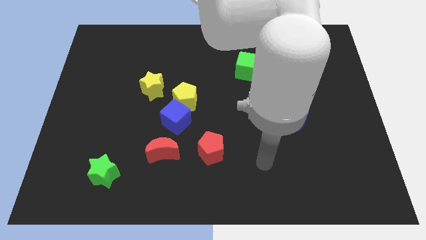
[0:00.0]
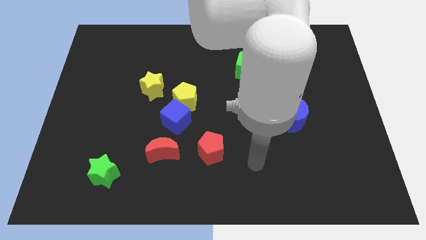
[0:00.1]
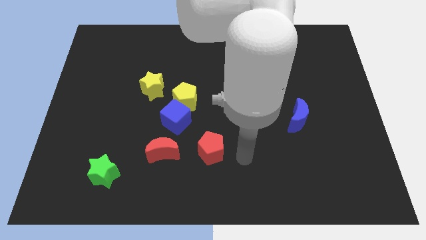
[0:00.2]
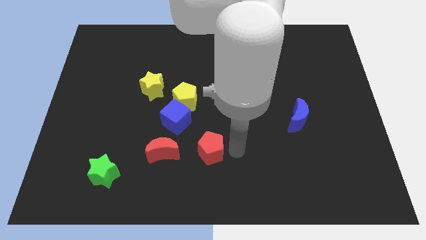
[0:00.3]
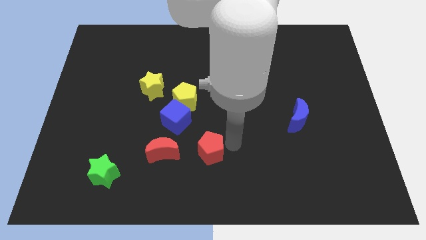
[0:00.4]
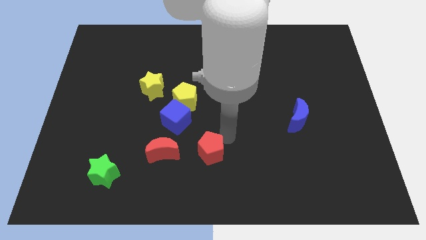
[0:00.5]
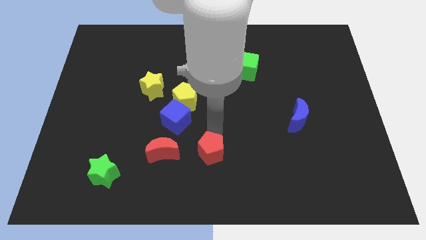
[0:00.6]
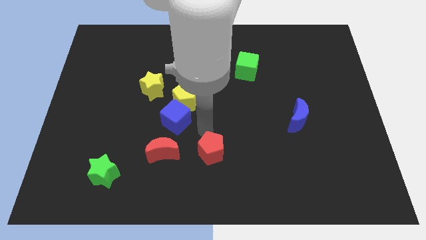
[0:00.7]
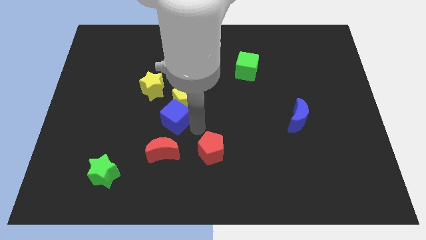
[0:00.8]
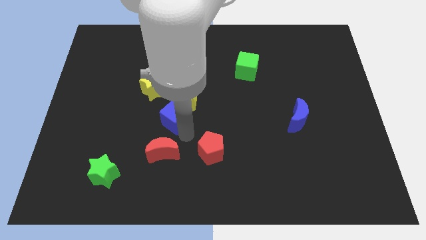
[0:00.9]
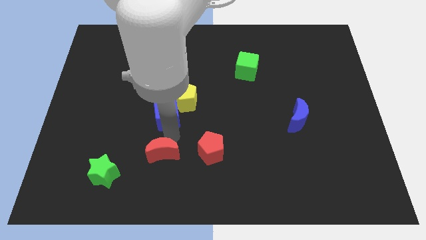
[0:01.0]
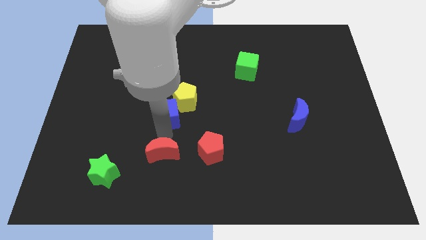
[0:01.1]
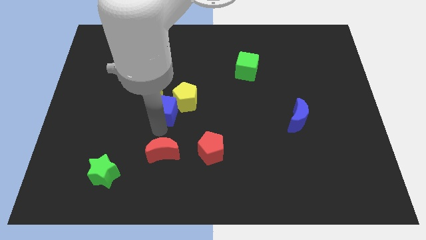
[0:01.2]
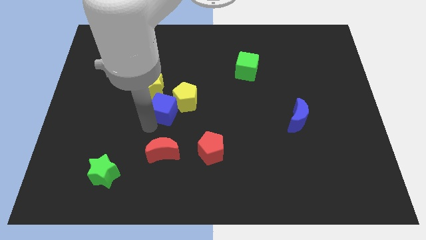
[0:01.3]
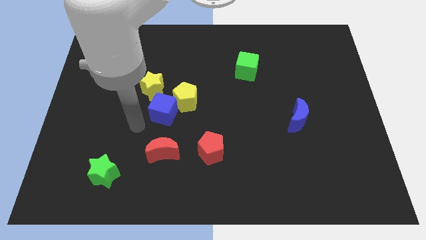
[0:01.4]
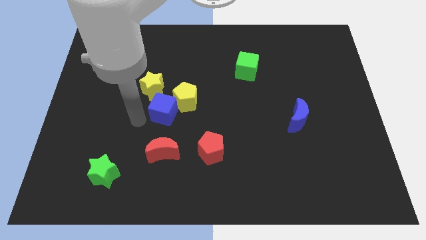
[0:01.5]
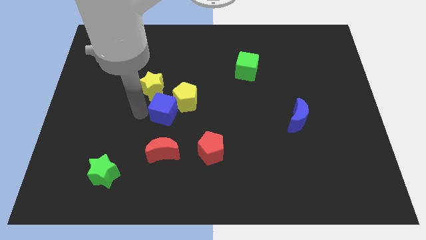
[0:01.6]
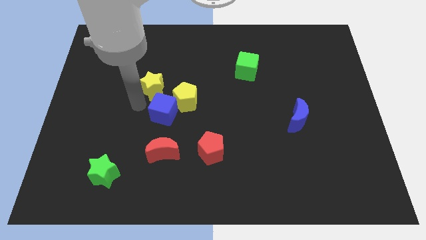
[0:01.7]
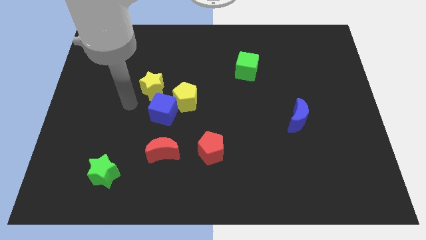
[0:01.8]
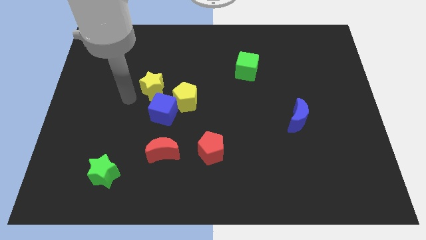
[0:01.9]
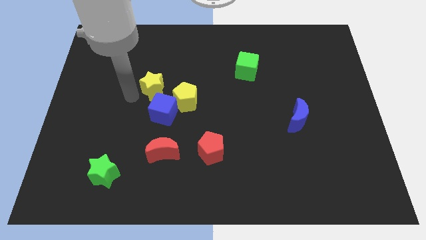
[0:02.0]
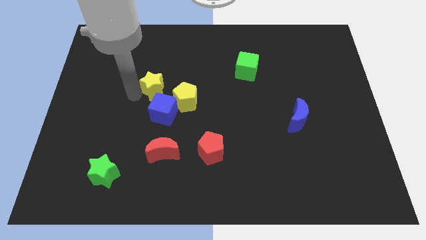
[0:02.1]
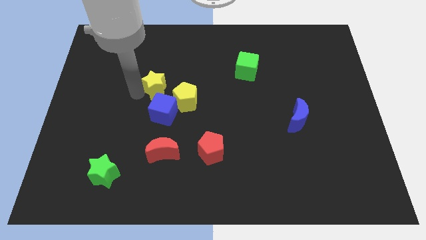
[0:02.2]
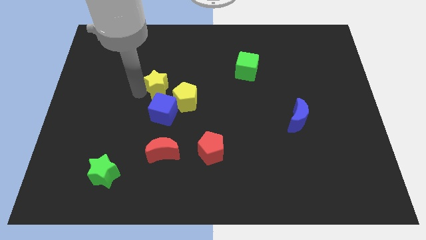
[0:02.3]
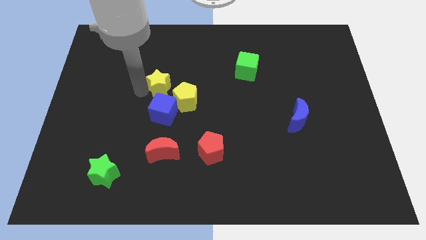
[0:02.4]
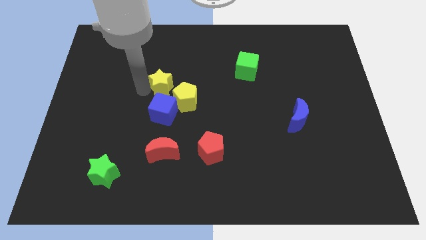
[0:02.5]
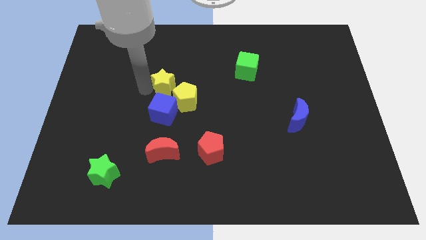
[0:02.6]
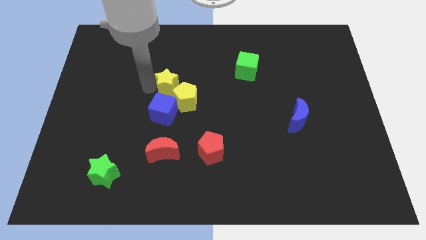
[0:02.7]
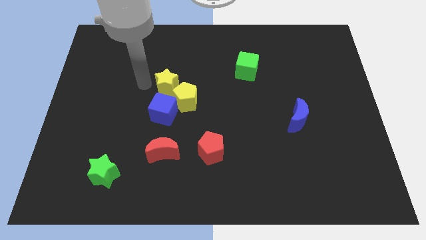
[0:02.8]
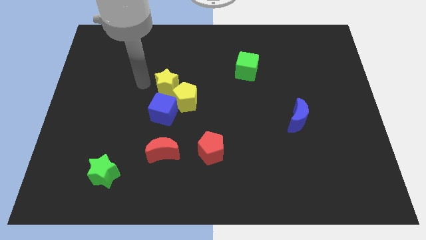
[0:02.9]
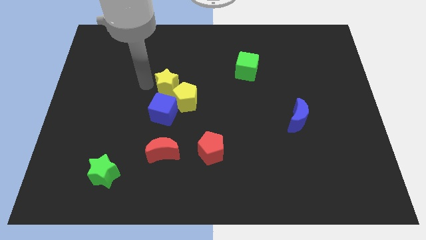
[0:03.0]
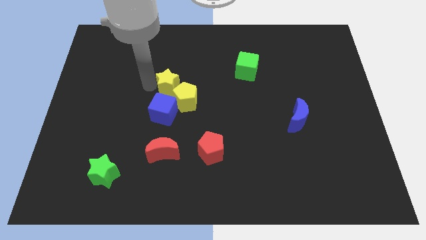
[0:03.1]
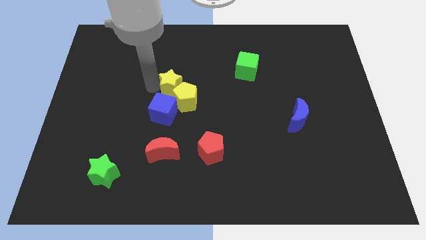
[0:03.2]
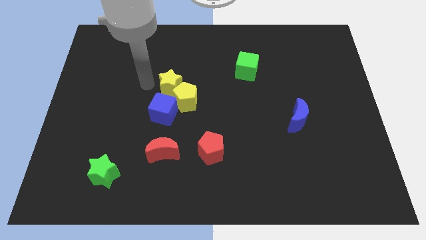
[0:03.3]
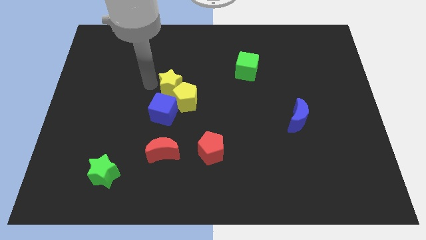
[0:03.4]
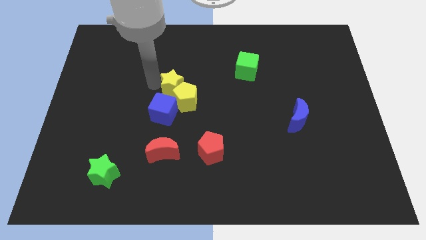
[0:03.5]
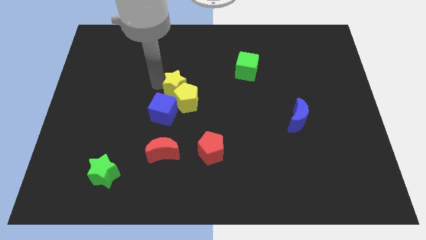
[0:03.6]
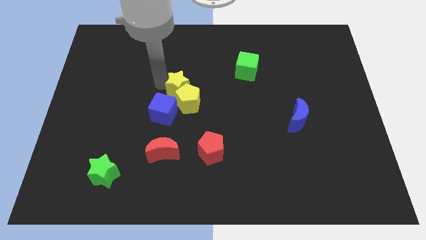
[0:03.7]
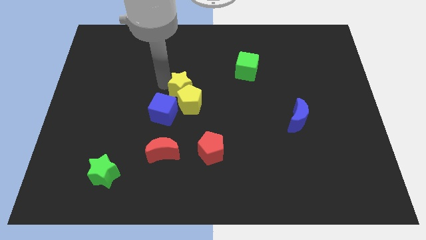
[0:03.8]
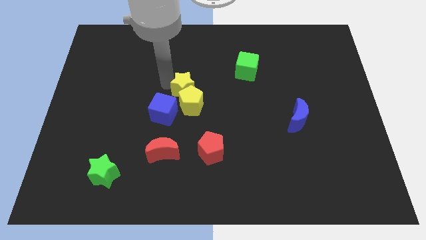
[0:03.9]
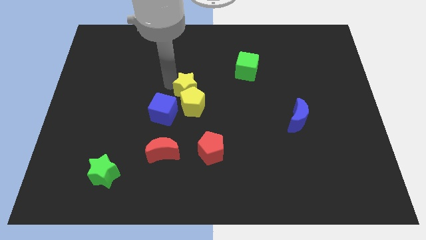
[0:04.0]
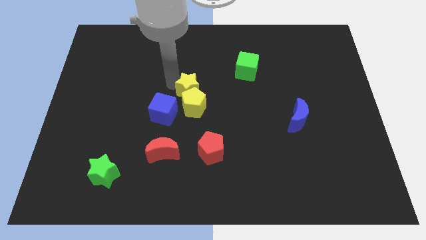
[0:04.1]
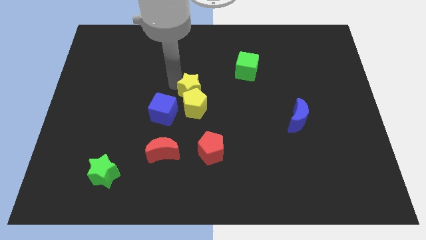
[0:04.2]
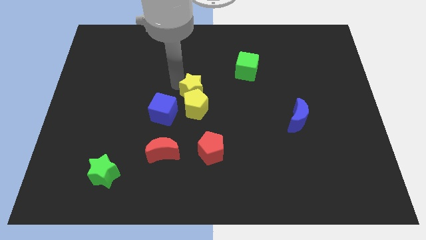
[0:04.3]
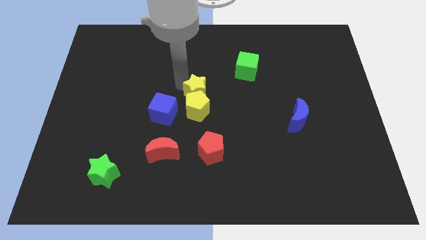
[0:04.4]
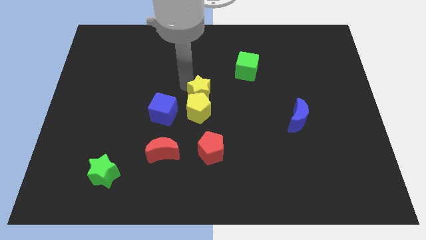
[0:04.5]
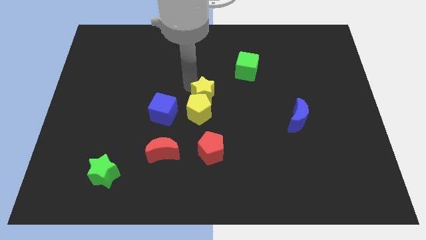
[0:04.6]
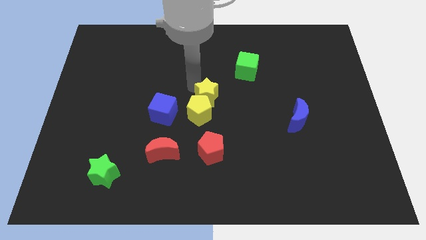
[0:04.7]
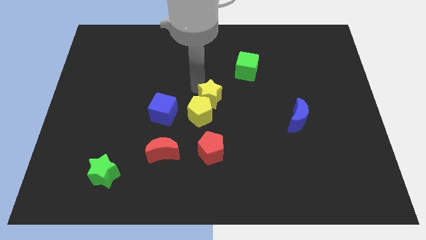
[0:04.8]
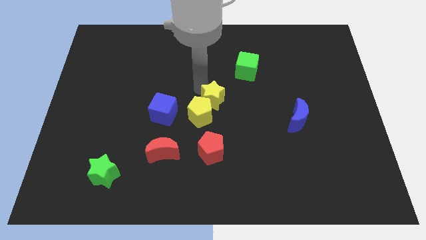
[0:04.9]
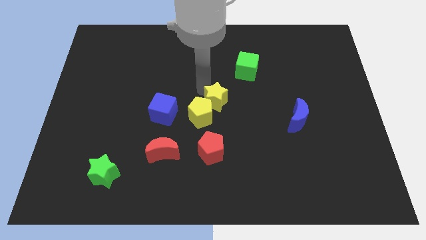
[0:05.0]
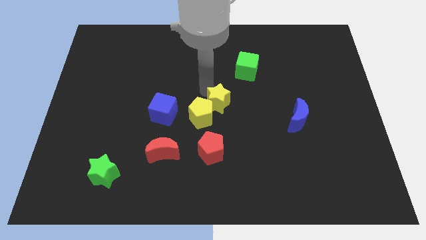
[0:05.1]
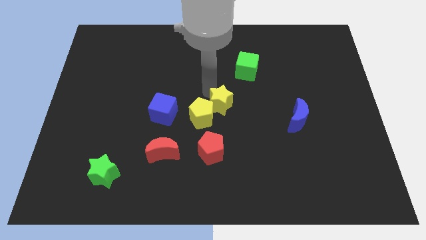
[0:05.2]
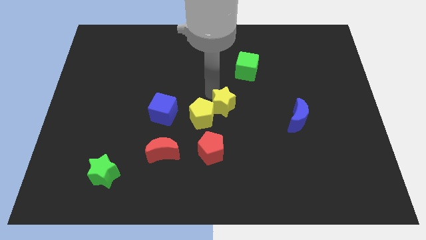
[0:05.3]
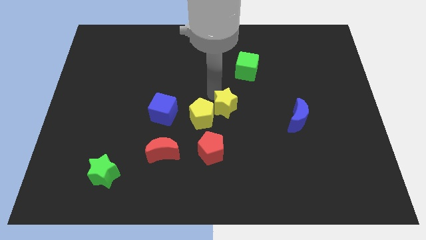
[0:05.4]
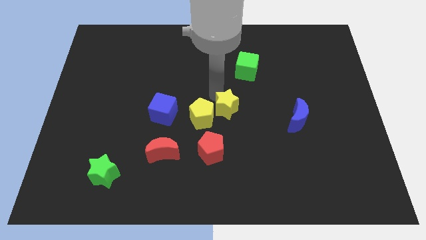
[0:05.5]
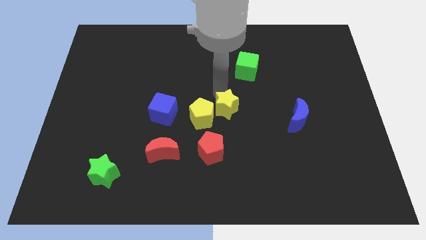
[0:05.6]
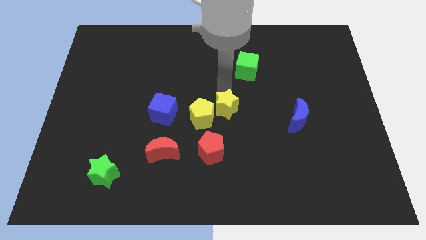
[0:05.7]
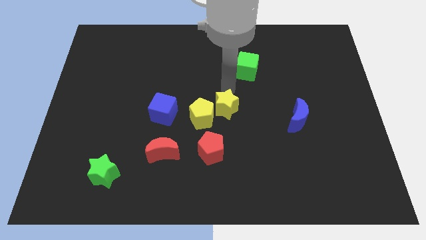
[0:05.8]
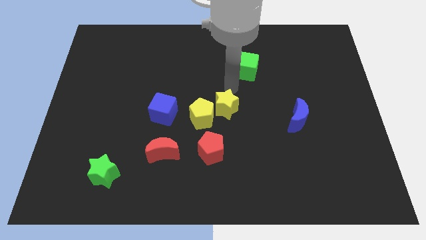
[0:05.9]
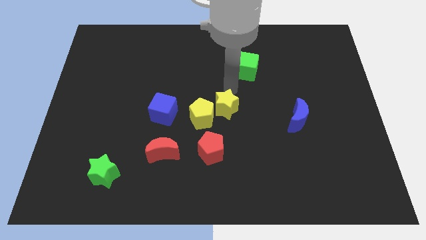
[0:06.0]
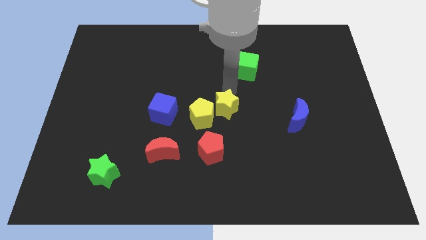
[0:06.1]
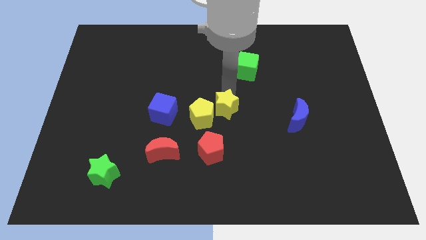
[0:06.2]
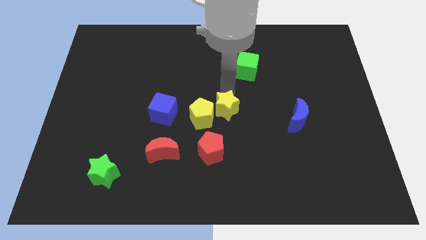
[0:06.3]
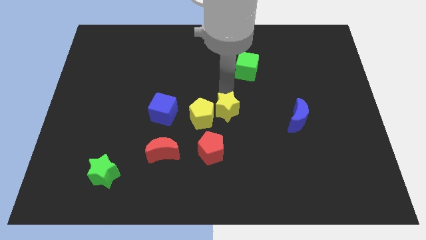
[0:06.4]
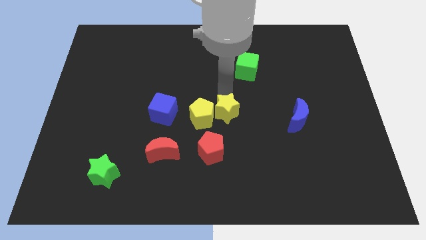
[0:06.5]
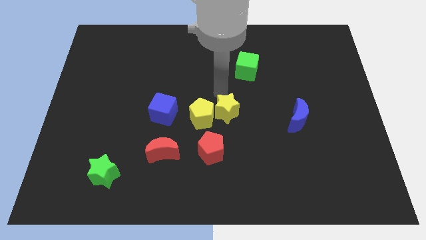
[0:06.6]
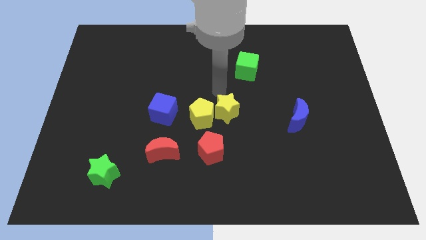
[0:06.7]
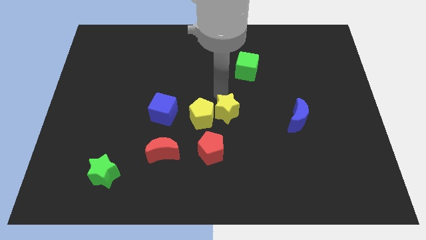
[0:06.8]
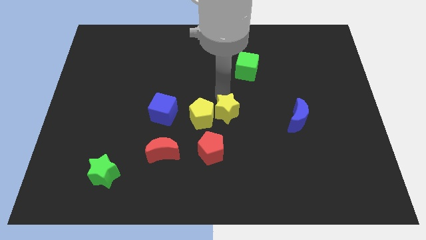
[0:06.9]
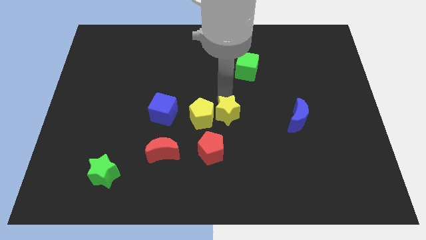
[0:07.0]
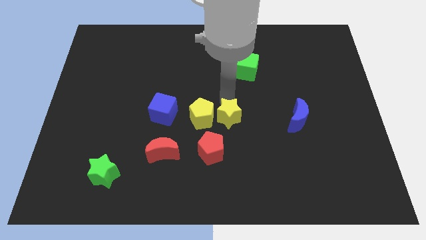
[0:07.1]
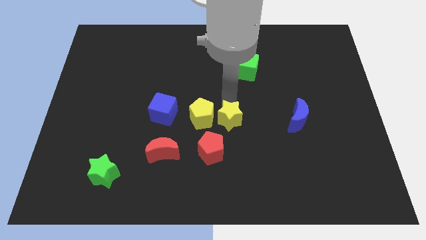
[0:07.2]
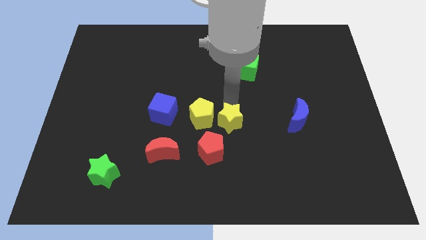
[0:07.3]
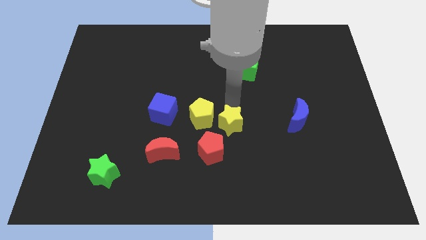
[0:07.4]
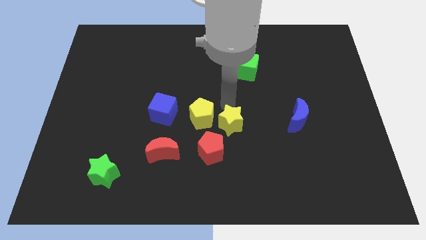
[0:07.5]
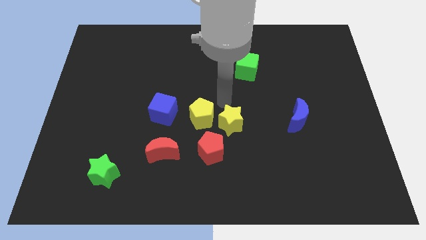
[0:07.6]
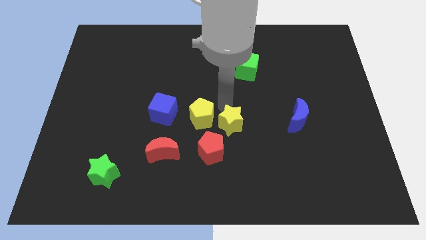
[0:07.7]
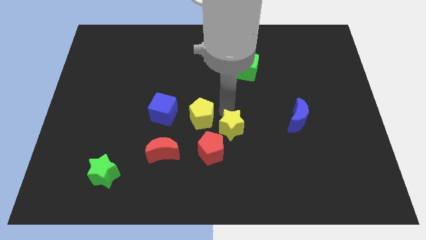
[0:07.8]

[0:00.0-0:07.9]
slide the yellow star downwards and then right
